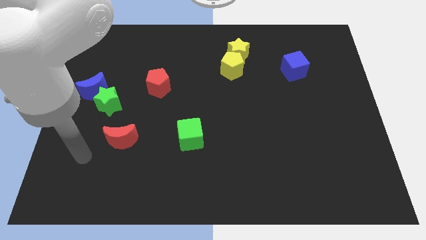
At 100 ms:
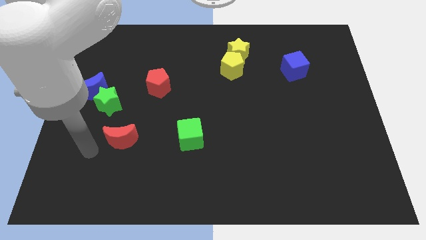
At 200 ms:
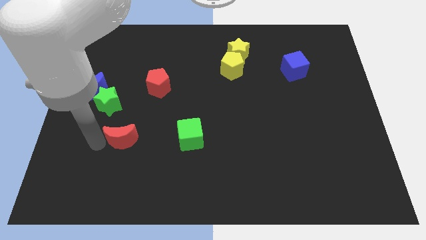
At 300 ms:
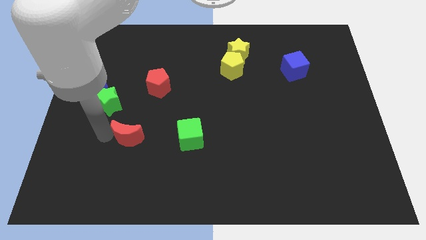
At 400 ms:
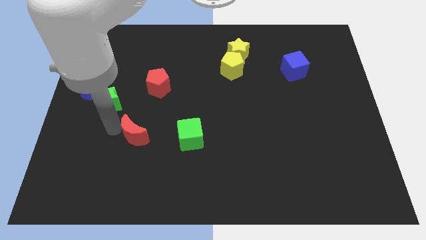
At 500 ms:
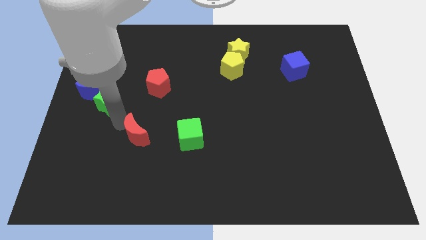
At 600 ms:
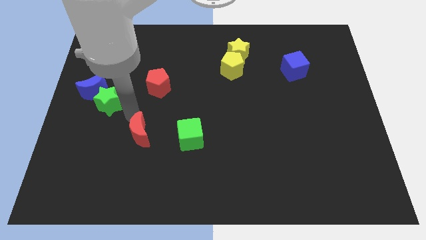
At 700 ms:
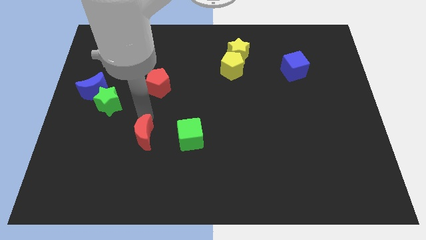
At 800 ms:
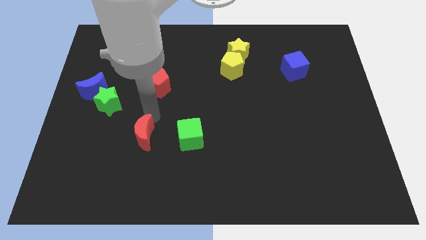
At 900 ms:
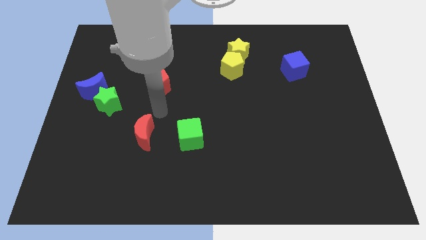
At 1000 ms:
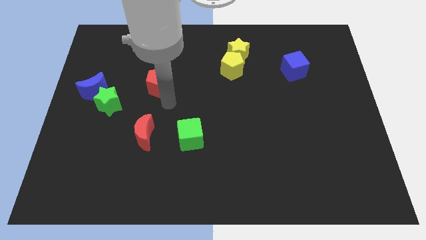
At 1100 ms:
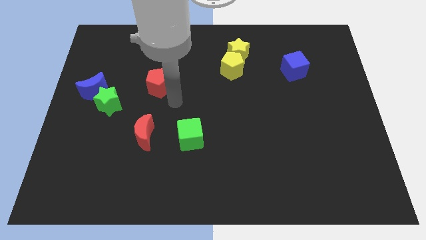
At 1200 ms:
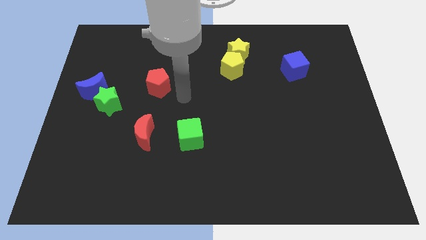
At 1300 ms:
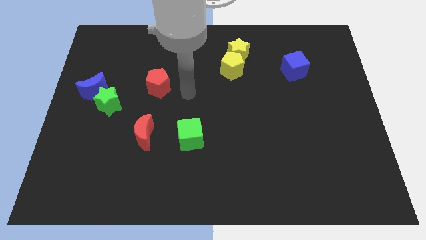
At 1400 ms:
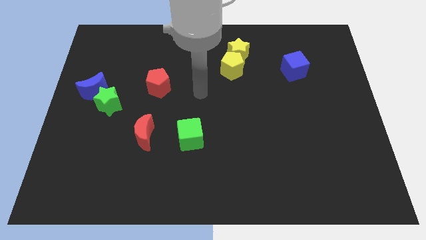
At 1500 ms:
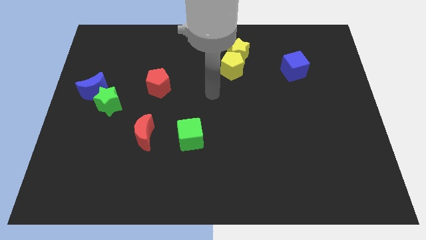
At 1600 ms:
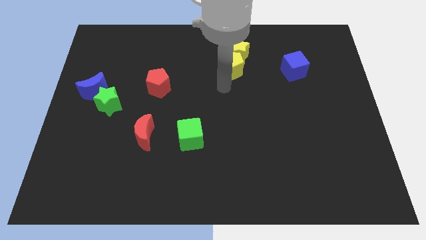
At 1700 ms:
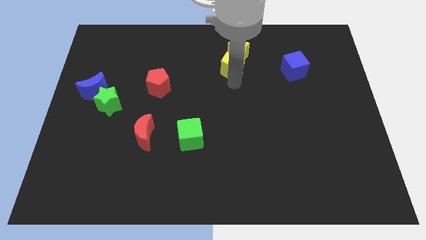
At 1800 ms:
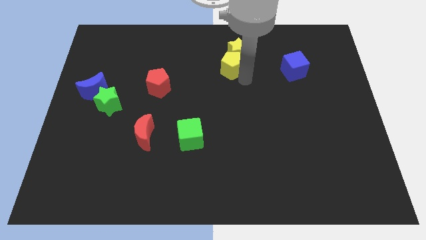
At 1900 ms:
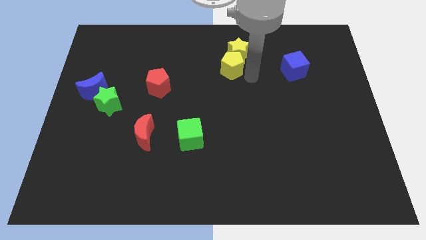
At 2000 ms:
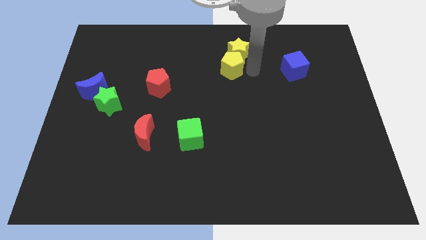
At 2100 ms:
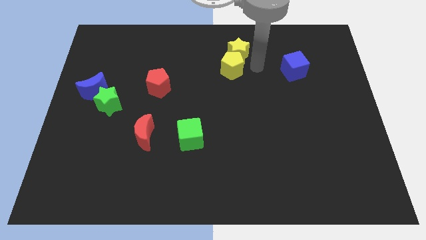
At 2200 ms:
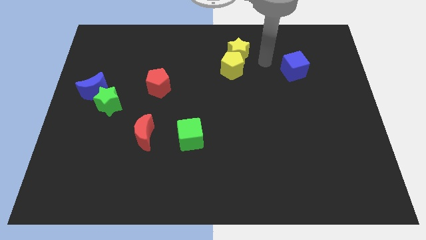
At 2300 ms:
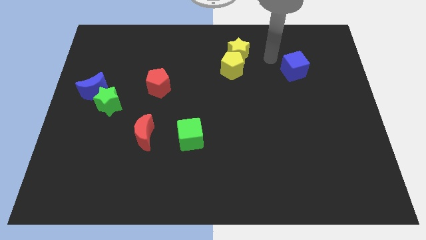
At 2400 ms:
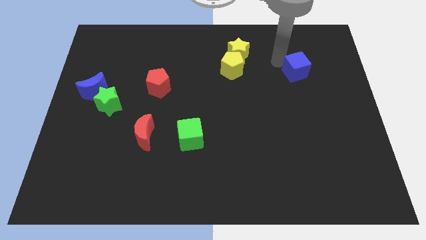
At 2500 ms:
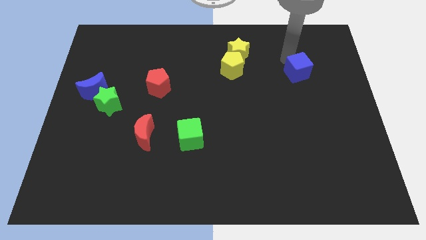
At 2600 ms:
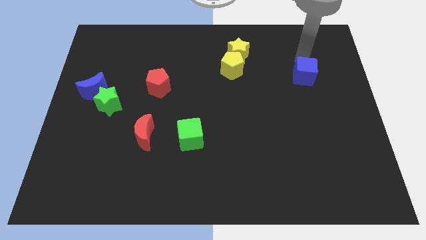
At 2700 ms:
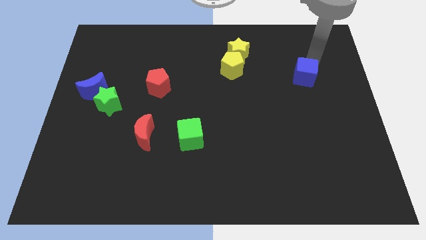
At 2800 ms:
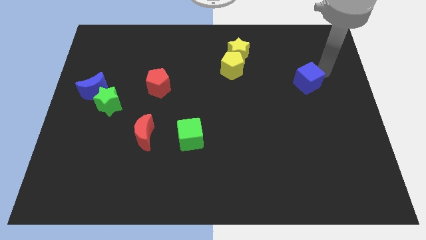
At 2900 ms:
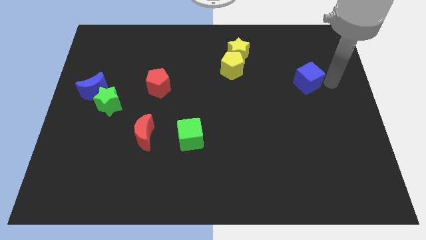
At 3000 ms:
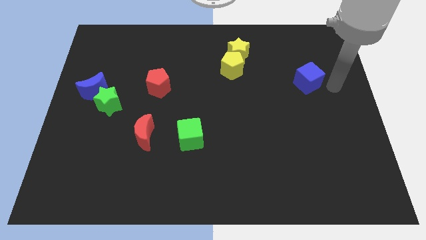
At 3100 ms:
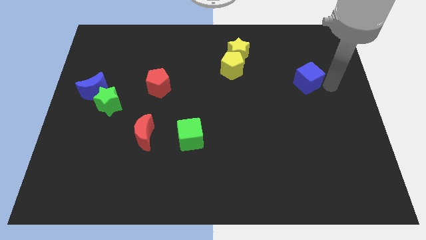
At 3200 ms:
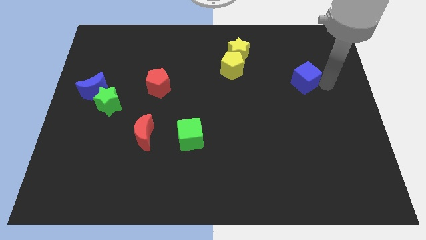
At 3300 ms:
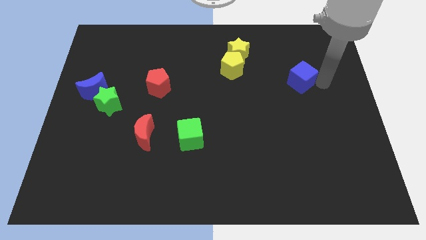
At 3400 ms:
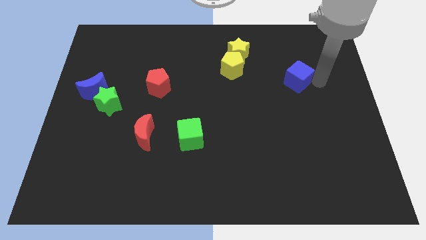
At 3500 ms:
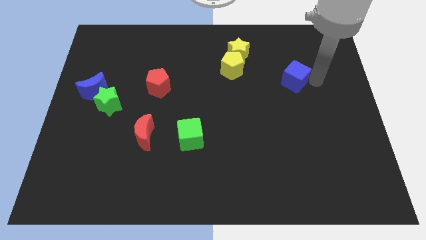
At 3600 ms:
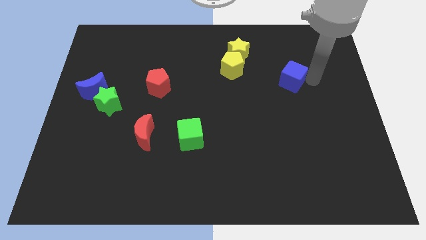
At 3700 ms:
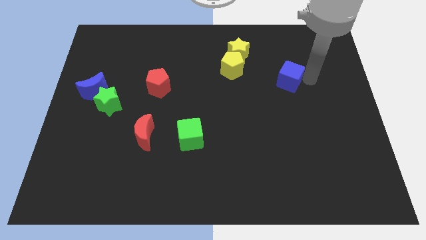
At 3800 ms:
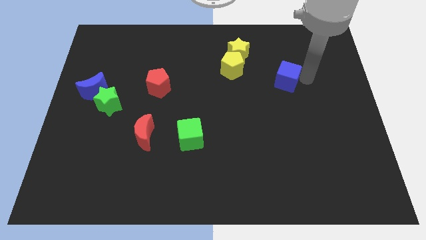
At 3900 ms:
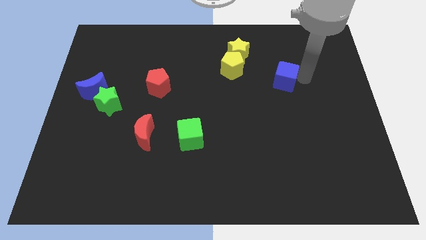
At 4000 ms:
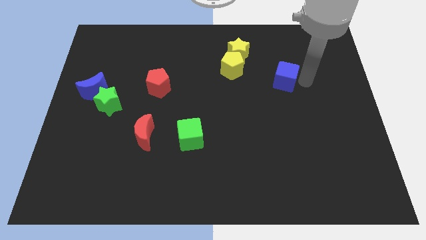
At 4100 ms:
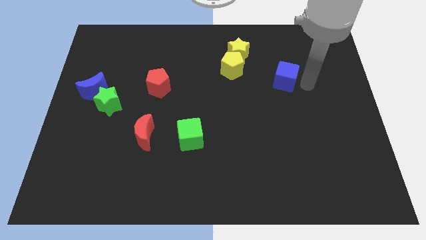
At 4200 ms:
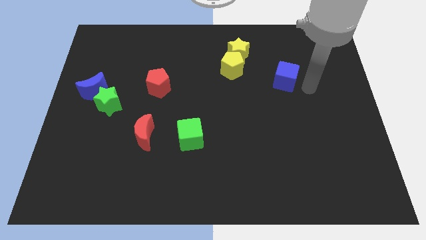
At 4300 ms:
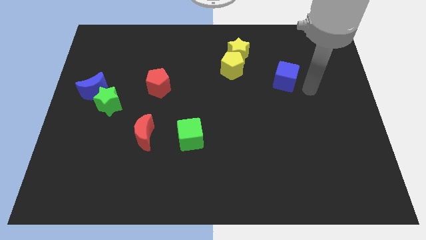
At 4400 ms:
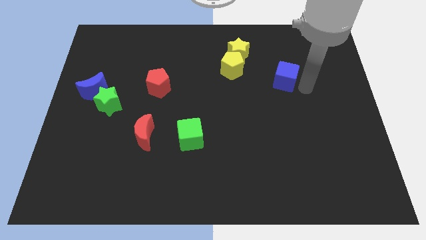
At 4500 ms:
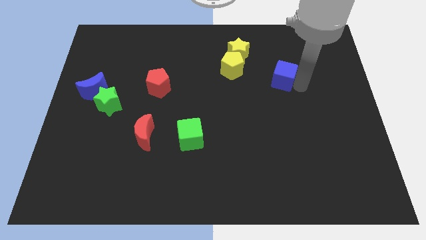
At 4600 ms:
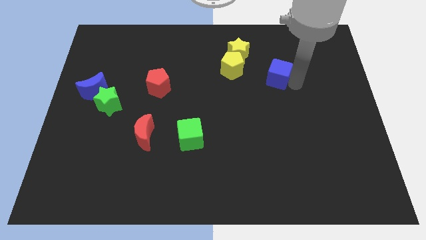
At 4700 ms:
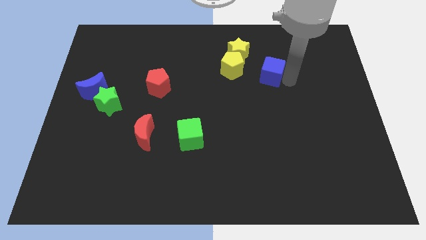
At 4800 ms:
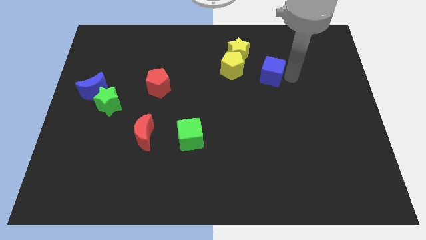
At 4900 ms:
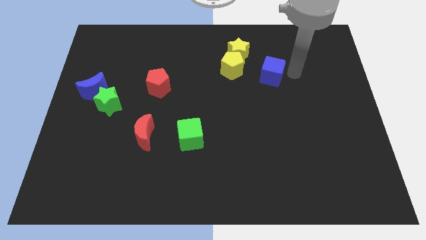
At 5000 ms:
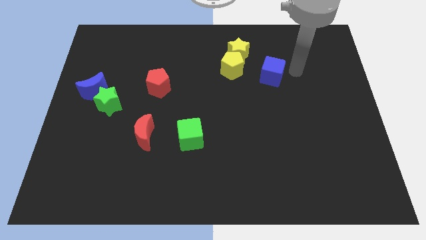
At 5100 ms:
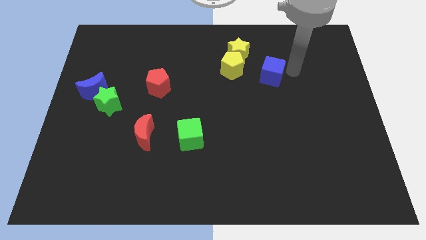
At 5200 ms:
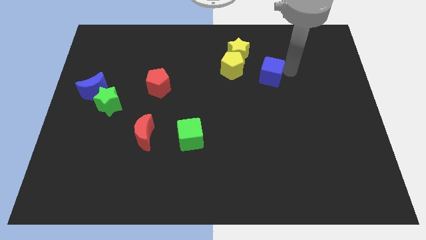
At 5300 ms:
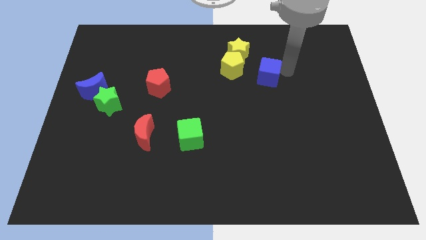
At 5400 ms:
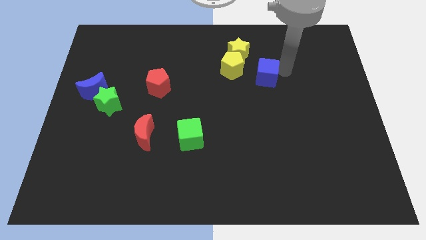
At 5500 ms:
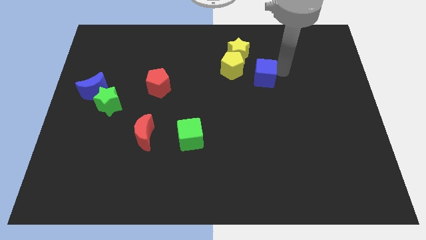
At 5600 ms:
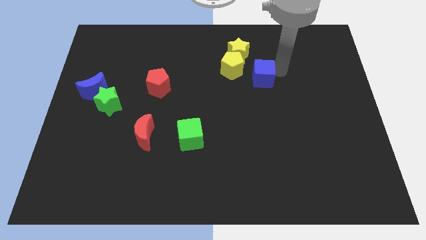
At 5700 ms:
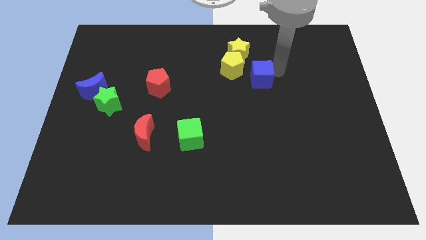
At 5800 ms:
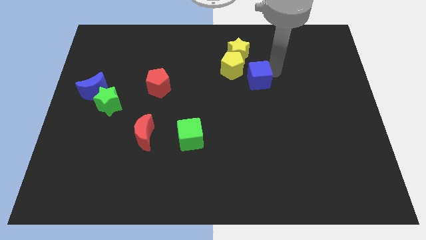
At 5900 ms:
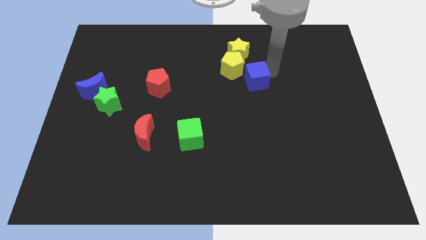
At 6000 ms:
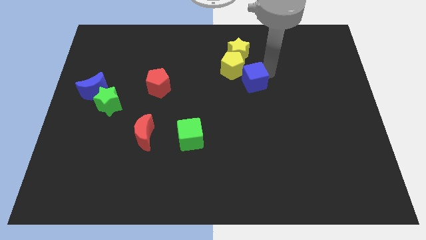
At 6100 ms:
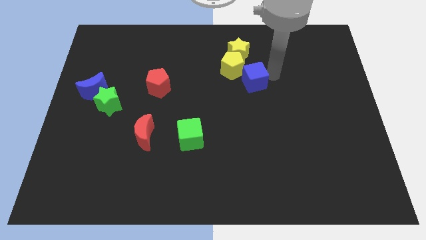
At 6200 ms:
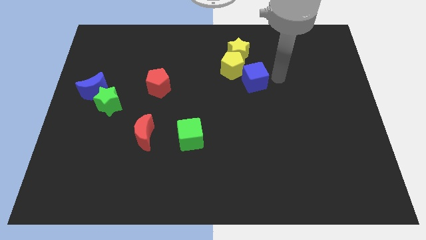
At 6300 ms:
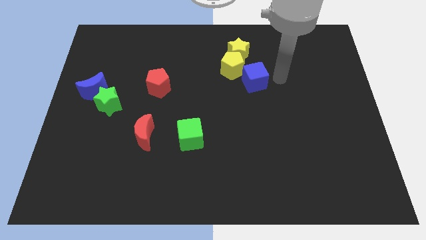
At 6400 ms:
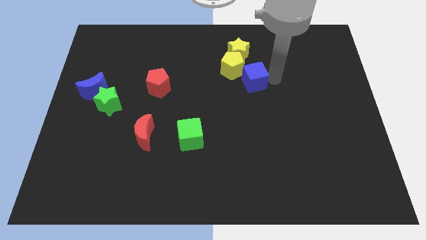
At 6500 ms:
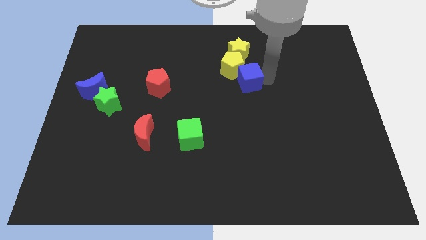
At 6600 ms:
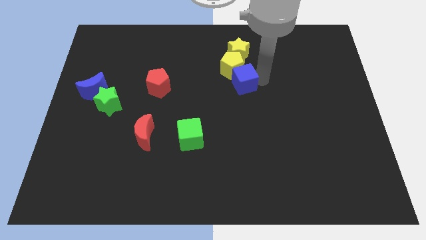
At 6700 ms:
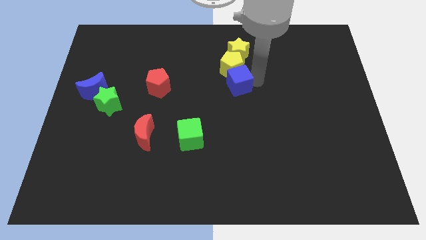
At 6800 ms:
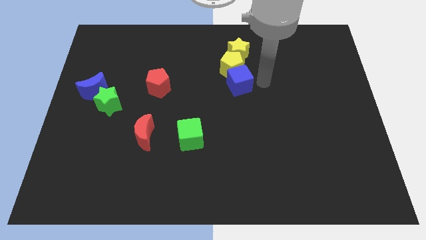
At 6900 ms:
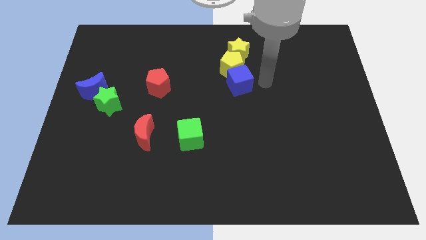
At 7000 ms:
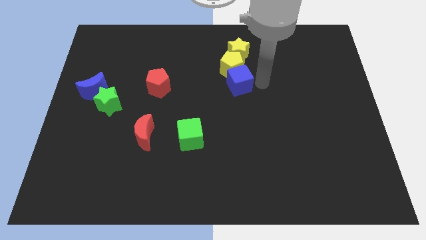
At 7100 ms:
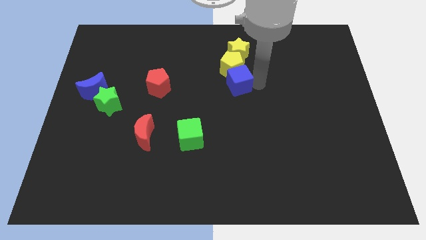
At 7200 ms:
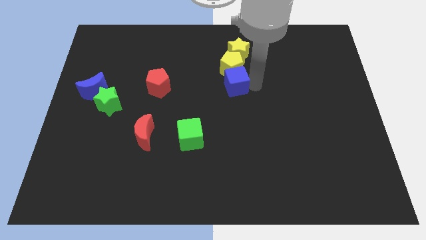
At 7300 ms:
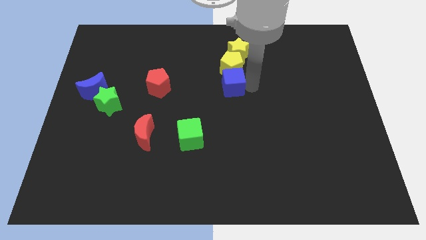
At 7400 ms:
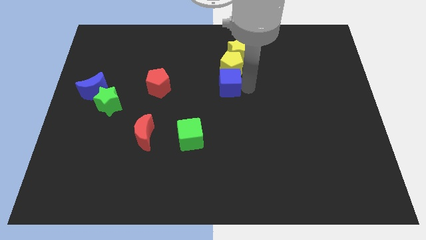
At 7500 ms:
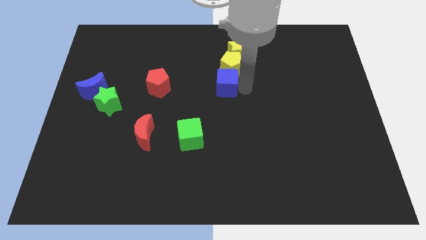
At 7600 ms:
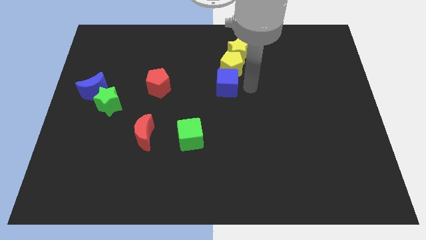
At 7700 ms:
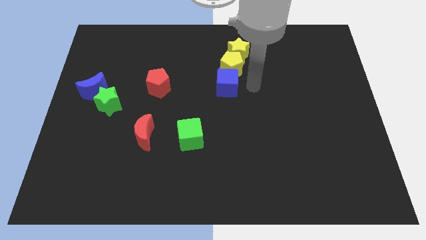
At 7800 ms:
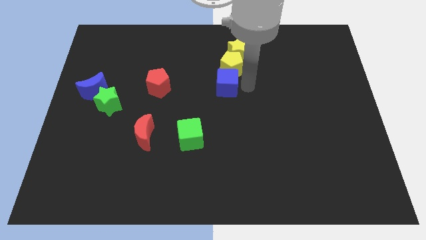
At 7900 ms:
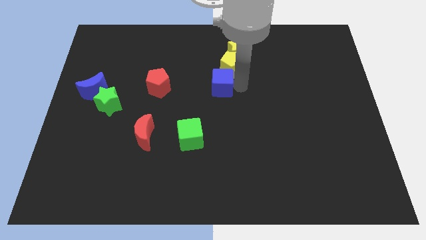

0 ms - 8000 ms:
put the blue cube right of the red pentagon
